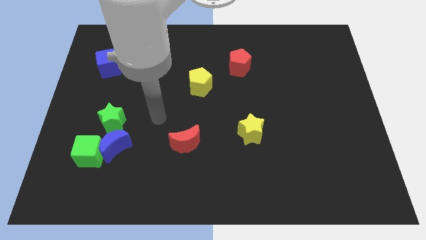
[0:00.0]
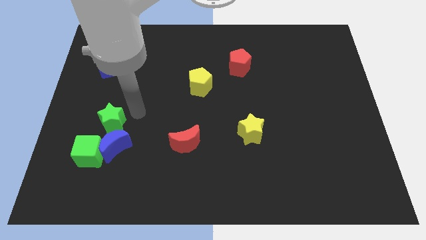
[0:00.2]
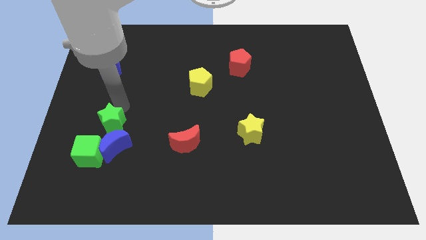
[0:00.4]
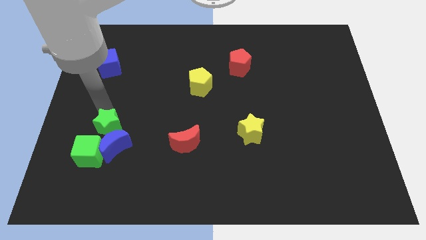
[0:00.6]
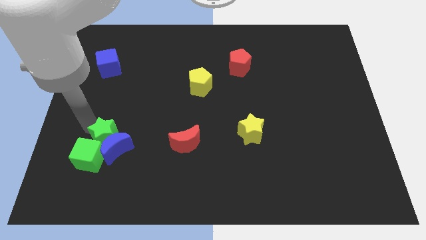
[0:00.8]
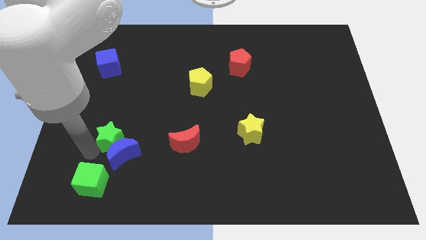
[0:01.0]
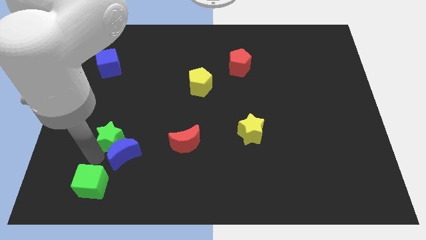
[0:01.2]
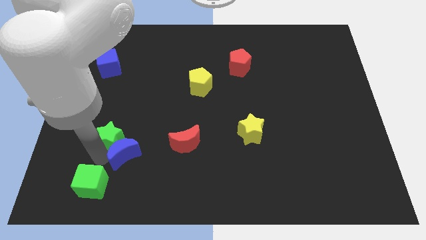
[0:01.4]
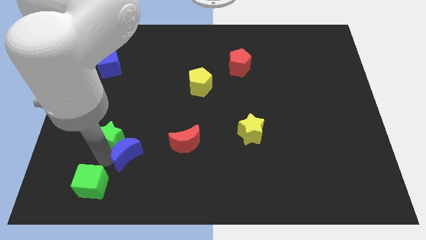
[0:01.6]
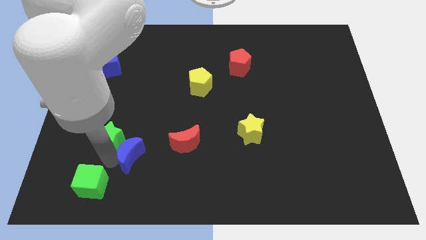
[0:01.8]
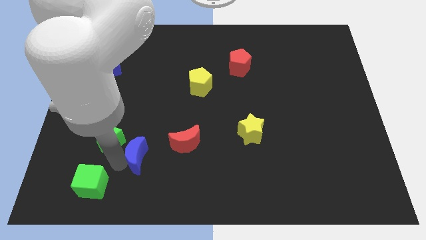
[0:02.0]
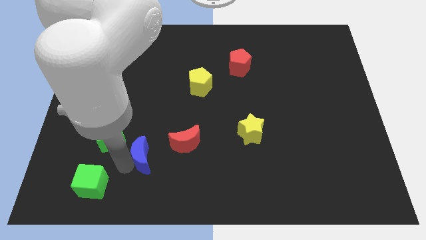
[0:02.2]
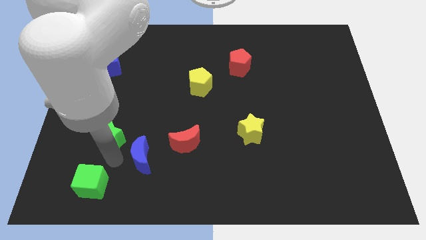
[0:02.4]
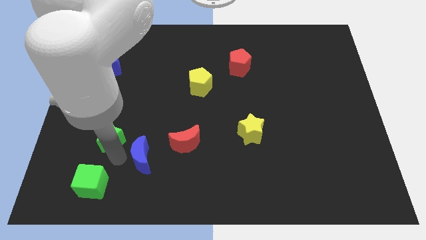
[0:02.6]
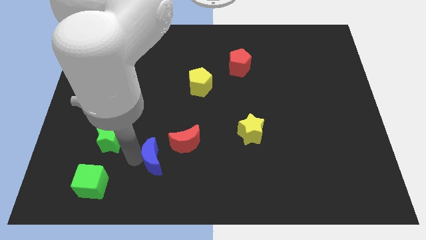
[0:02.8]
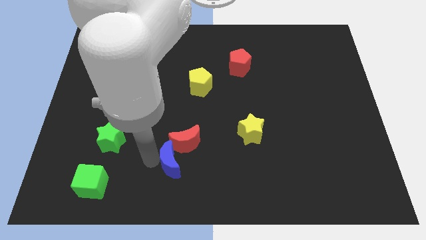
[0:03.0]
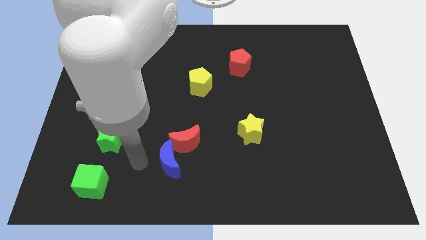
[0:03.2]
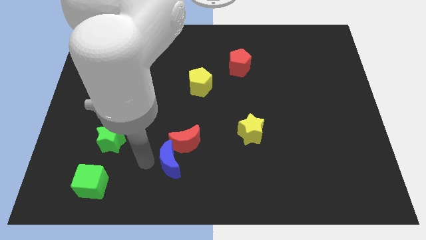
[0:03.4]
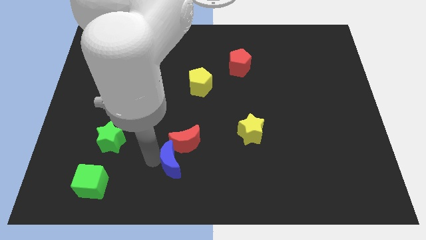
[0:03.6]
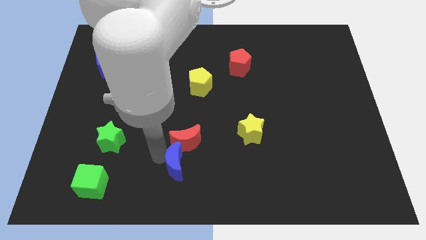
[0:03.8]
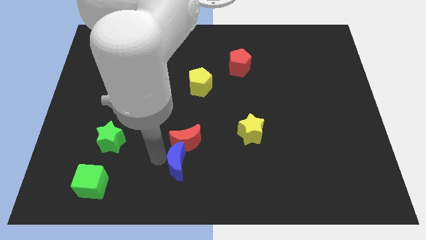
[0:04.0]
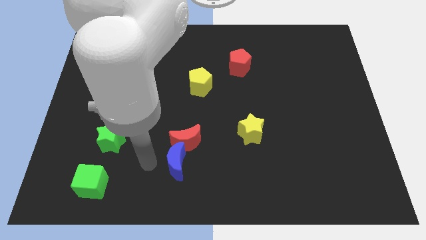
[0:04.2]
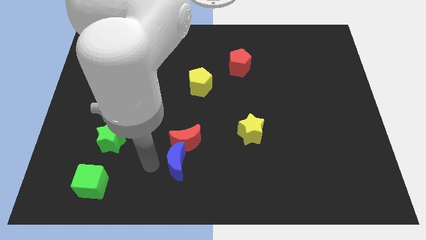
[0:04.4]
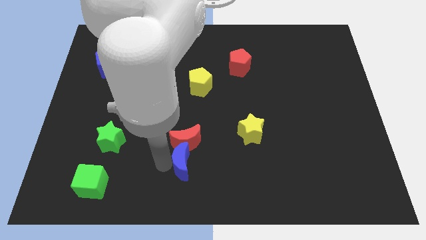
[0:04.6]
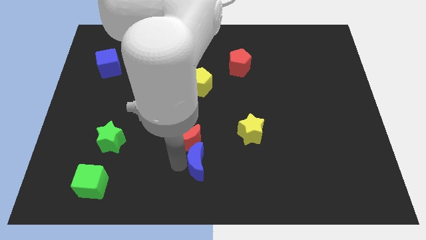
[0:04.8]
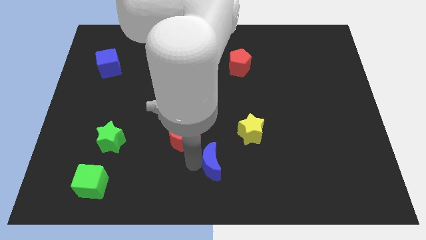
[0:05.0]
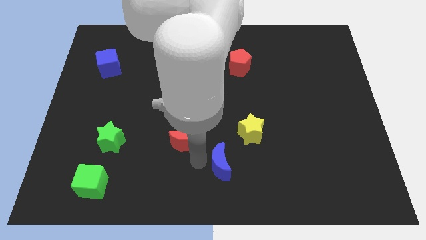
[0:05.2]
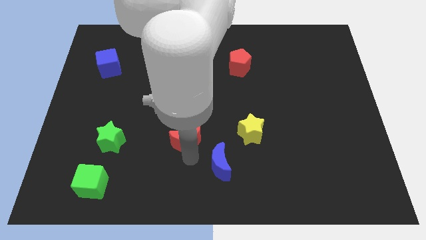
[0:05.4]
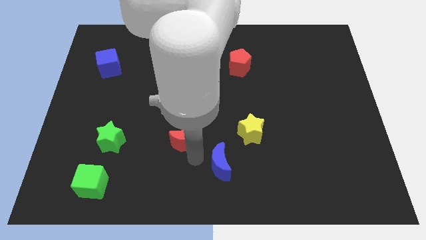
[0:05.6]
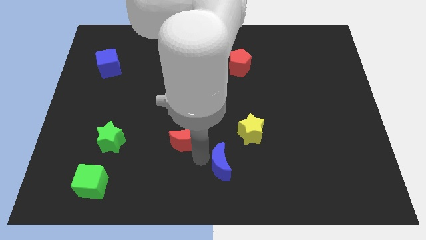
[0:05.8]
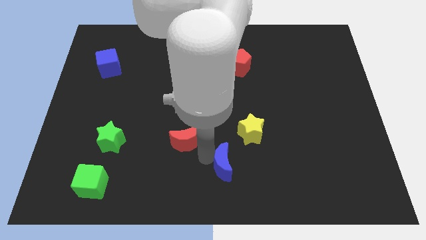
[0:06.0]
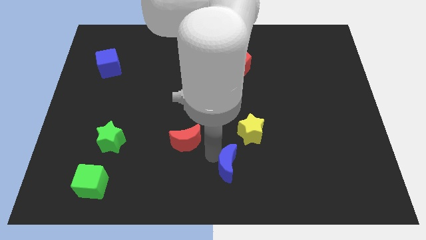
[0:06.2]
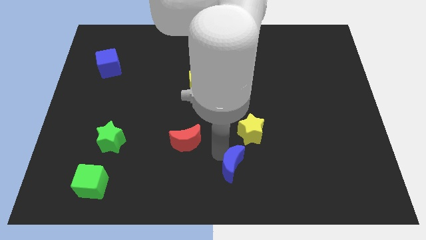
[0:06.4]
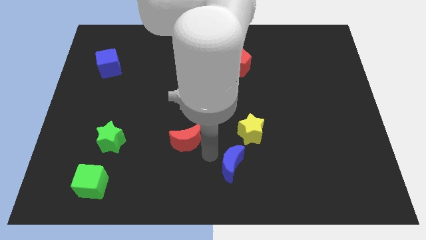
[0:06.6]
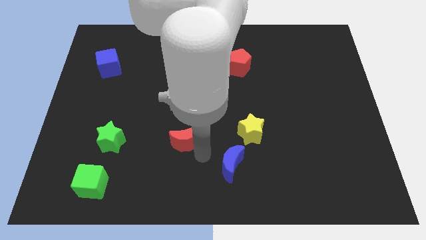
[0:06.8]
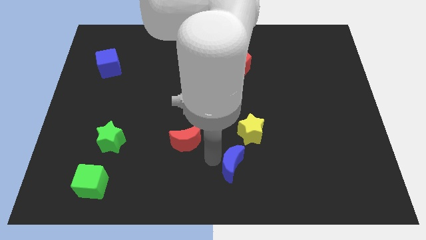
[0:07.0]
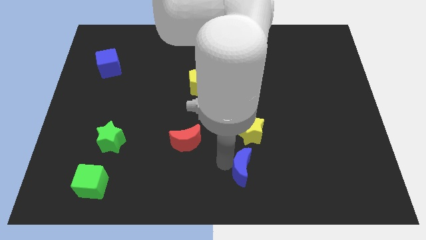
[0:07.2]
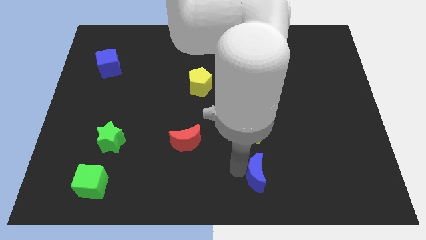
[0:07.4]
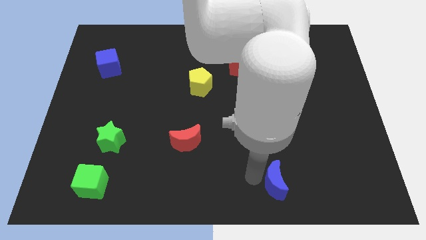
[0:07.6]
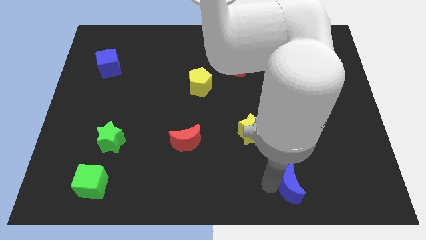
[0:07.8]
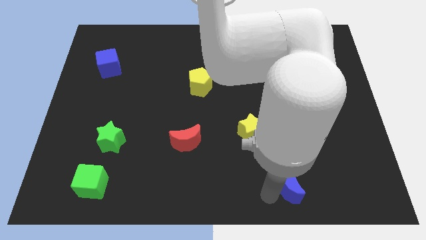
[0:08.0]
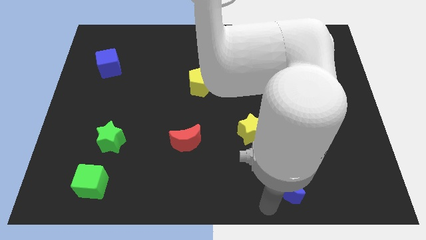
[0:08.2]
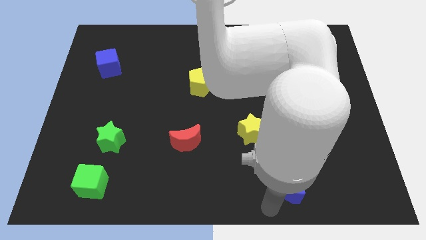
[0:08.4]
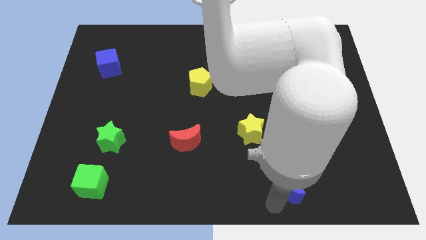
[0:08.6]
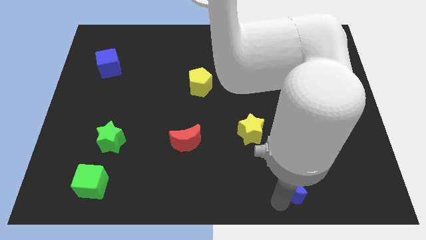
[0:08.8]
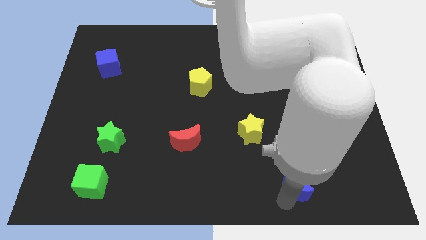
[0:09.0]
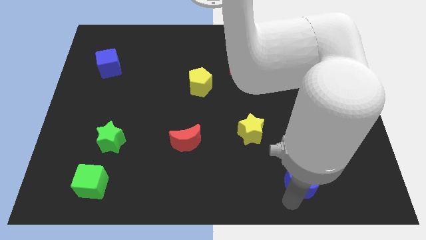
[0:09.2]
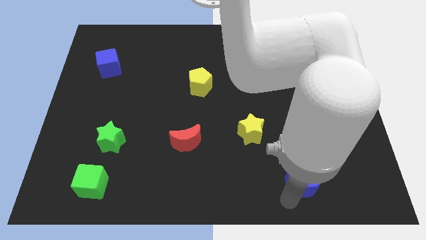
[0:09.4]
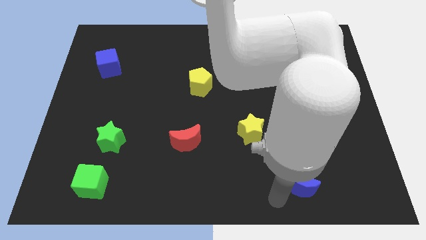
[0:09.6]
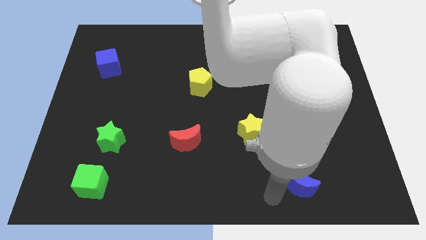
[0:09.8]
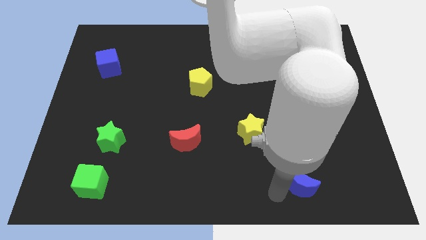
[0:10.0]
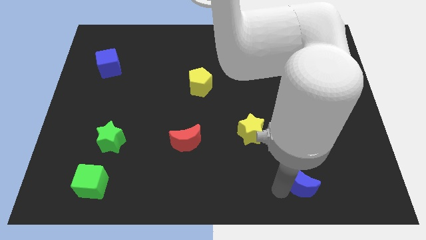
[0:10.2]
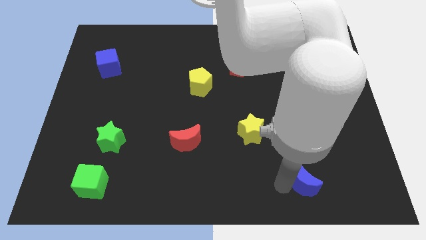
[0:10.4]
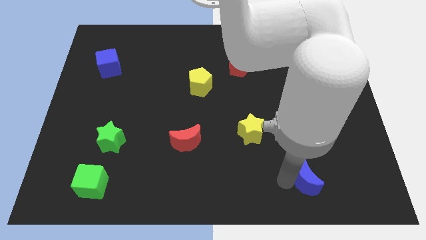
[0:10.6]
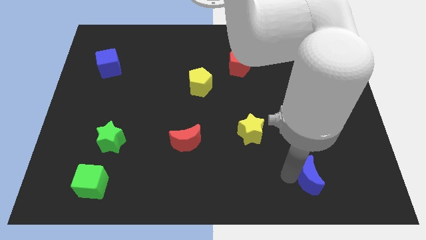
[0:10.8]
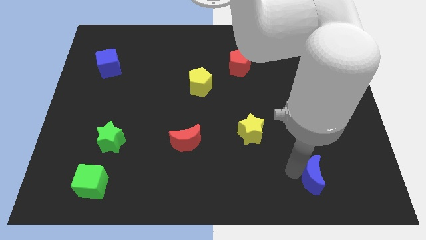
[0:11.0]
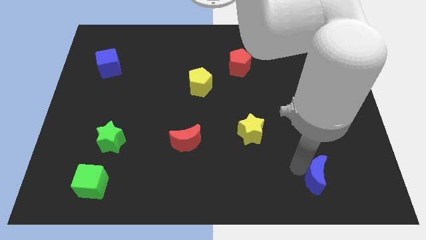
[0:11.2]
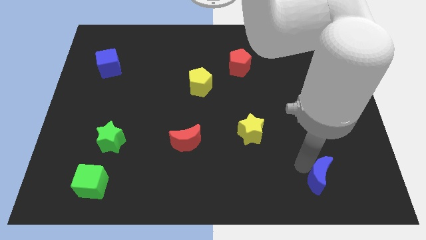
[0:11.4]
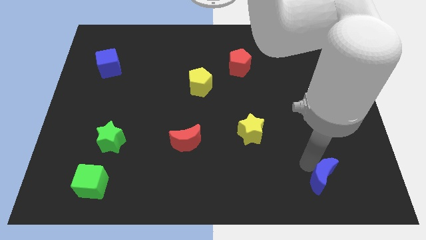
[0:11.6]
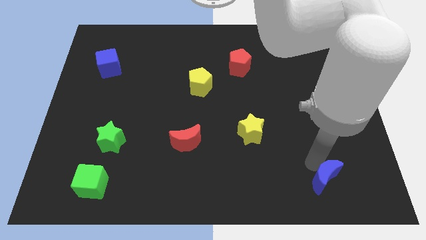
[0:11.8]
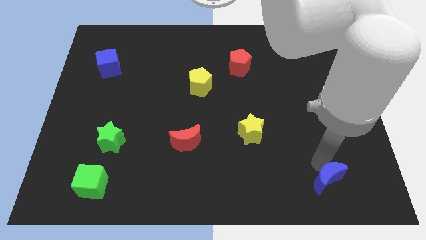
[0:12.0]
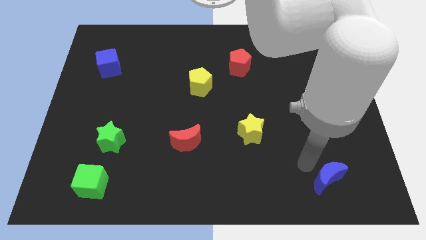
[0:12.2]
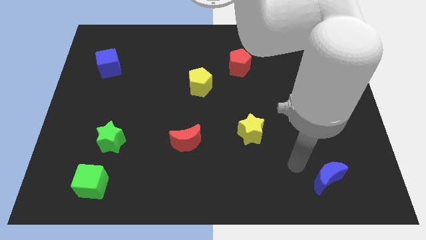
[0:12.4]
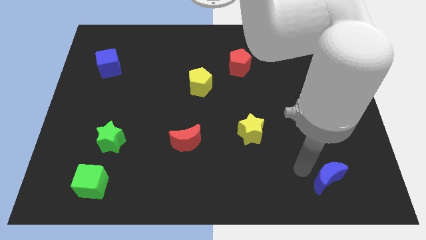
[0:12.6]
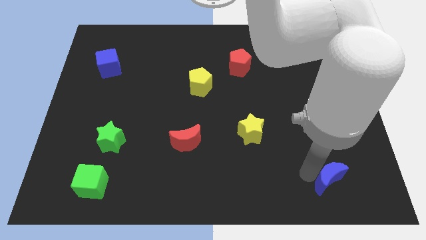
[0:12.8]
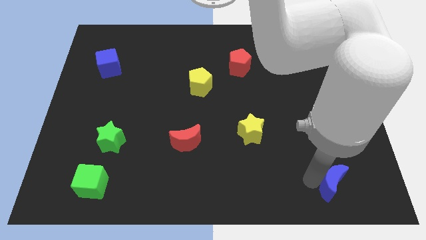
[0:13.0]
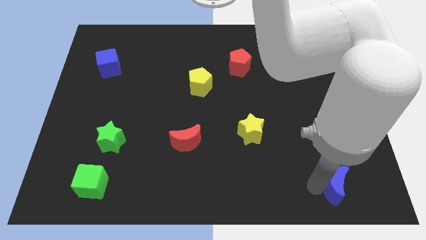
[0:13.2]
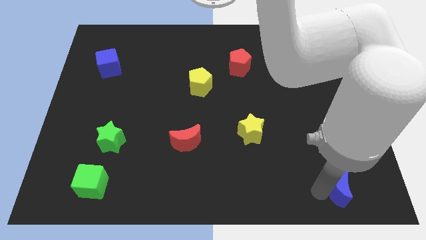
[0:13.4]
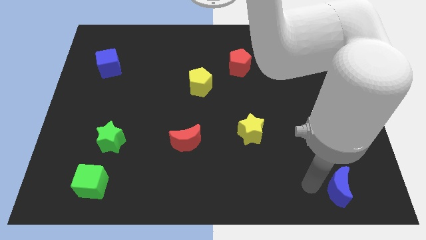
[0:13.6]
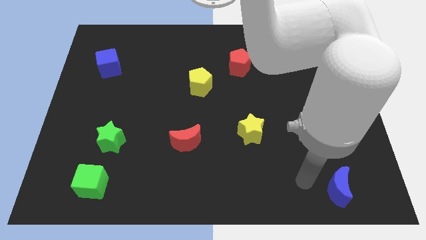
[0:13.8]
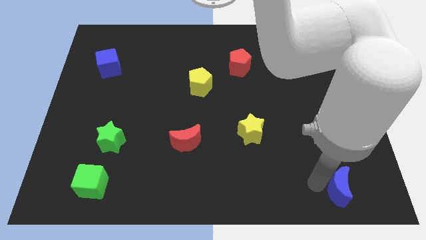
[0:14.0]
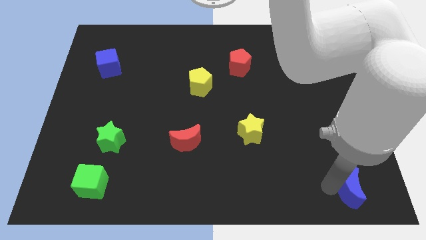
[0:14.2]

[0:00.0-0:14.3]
slide the blue moon to the bottom right

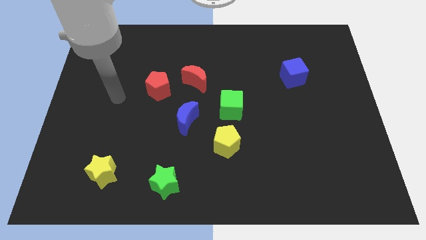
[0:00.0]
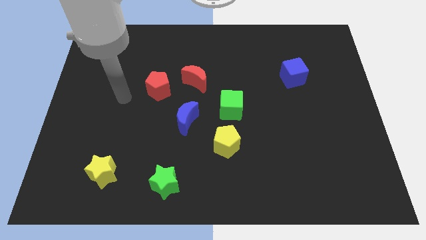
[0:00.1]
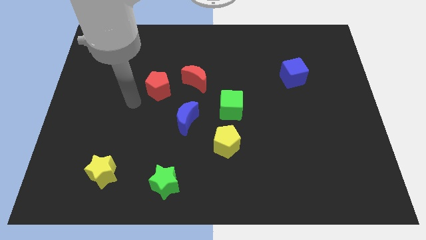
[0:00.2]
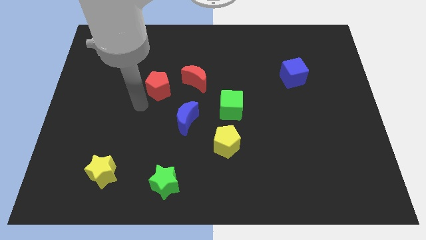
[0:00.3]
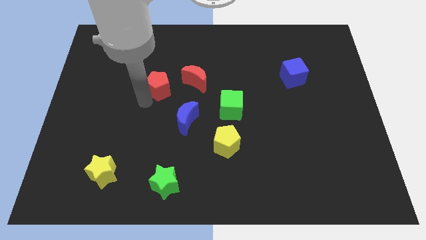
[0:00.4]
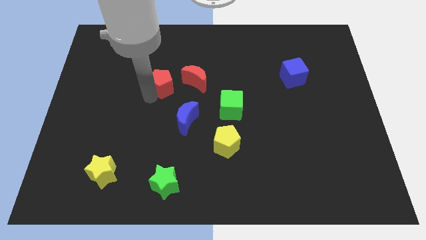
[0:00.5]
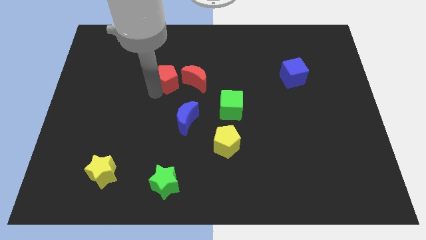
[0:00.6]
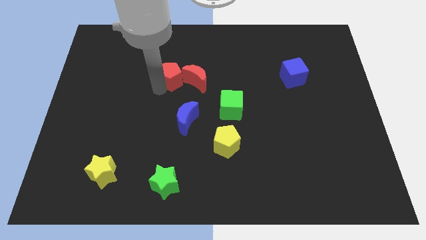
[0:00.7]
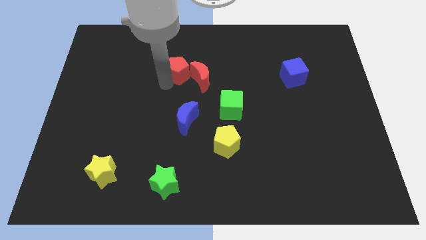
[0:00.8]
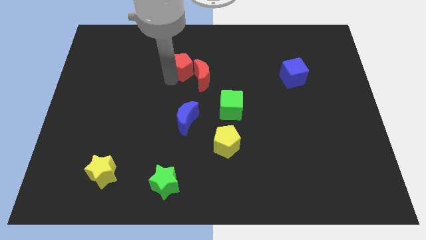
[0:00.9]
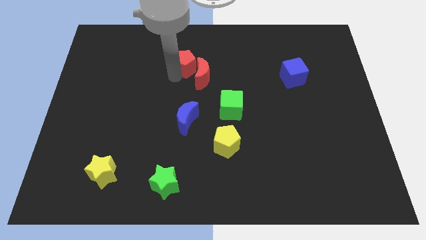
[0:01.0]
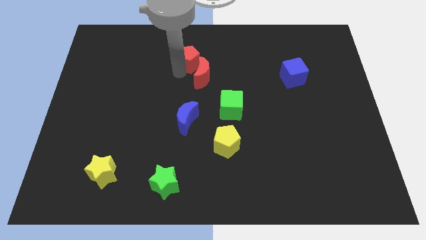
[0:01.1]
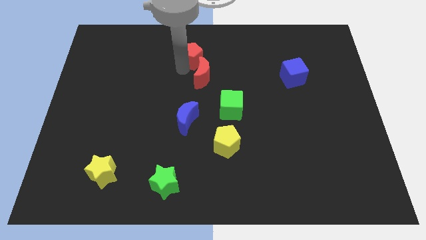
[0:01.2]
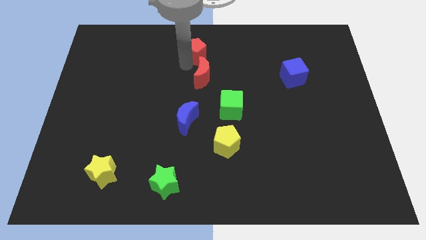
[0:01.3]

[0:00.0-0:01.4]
put the red pentagon to the top side
